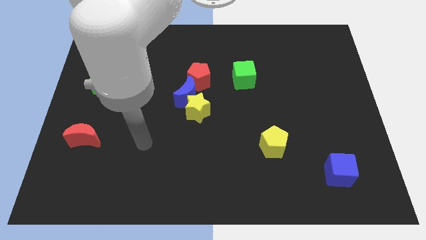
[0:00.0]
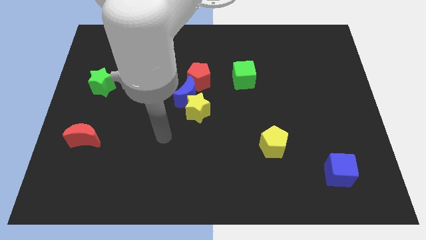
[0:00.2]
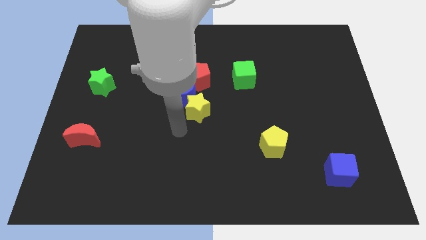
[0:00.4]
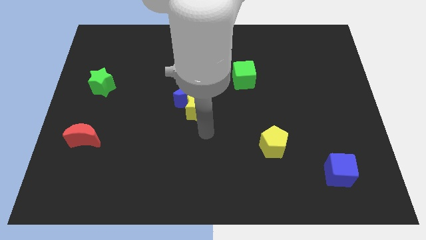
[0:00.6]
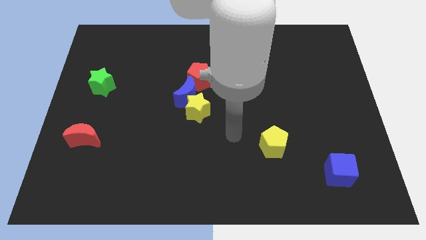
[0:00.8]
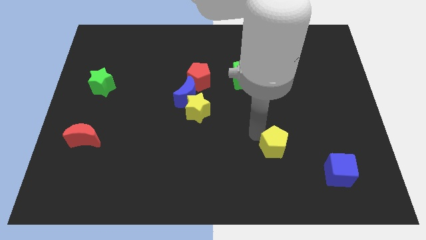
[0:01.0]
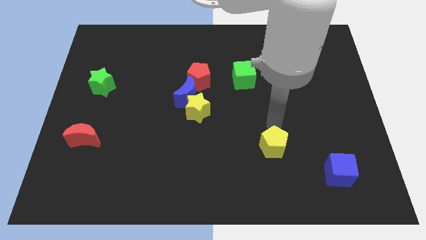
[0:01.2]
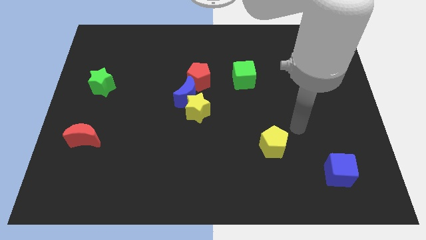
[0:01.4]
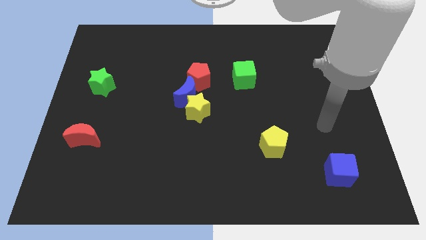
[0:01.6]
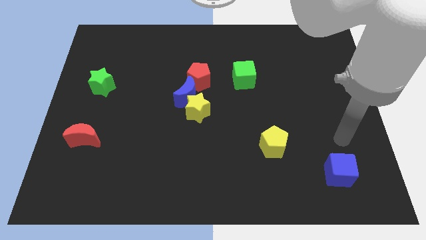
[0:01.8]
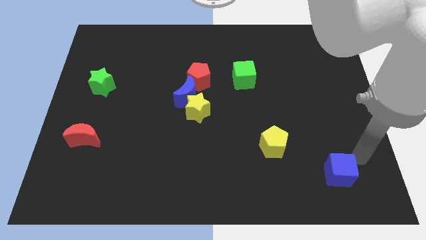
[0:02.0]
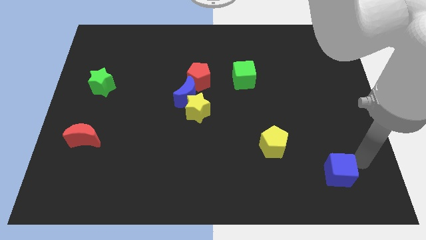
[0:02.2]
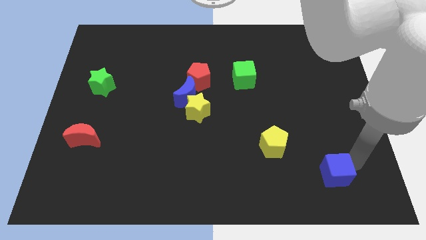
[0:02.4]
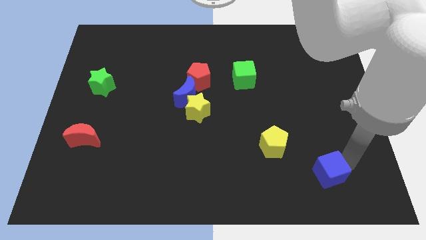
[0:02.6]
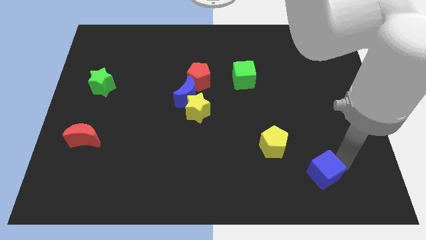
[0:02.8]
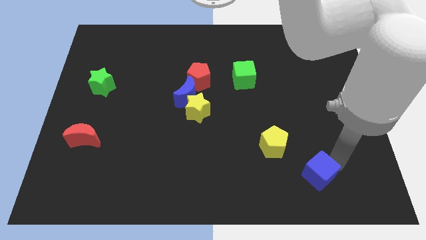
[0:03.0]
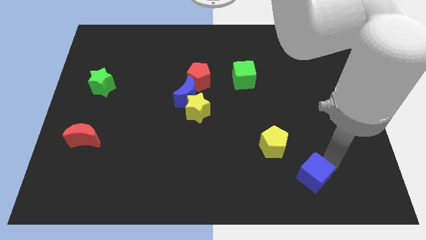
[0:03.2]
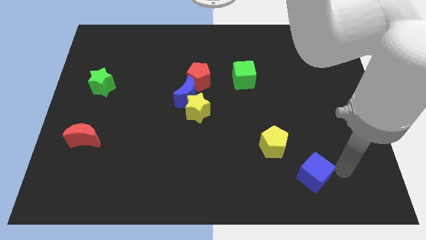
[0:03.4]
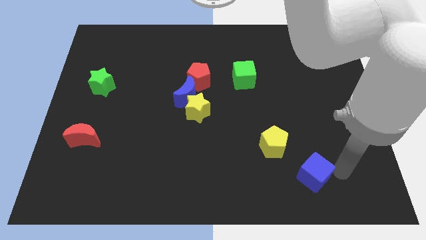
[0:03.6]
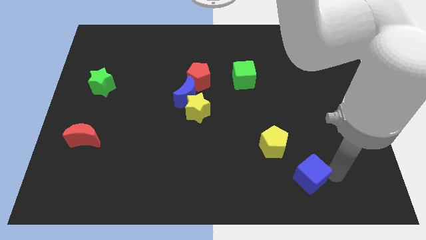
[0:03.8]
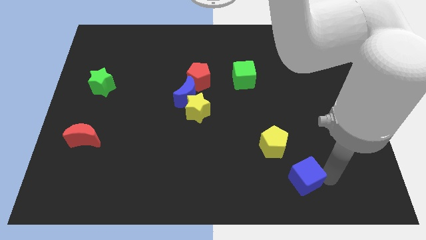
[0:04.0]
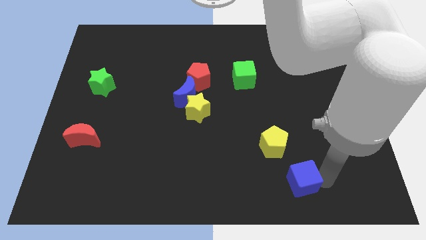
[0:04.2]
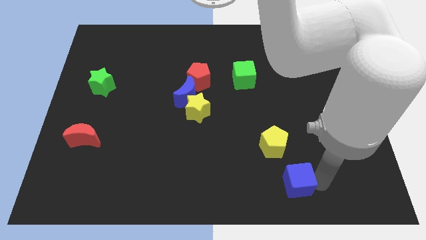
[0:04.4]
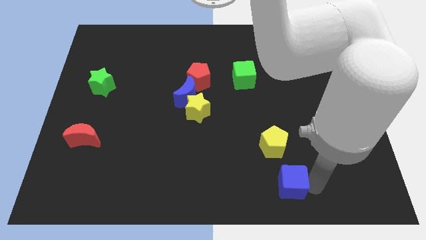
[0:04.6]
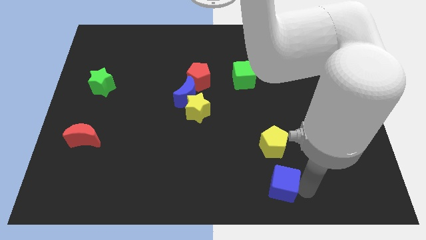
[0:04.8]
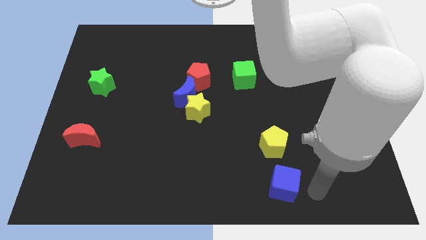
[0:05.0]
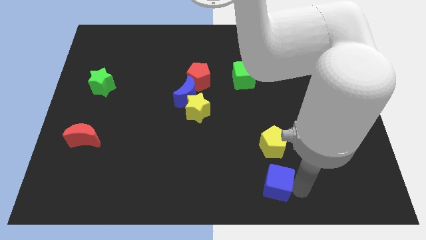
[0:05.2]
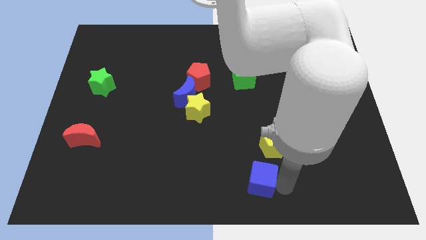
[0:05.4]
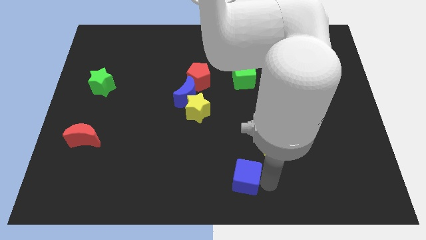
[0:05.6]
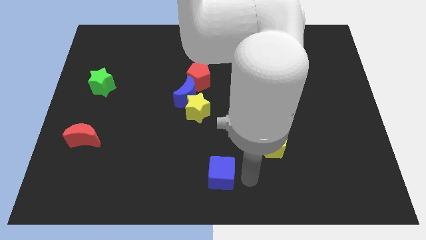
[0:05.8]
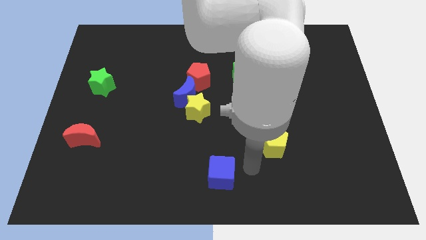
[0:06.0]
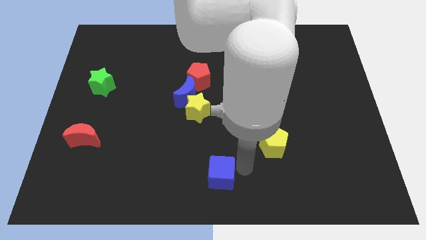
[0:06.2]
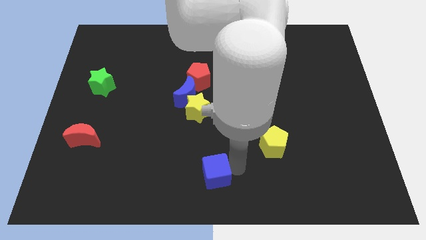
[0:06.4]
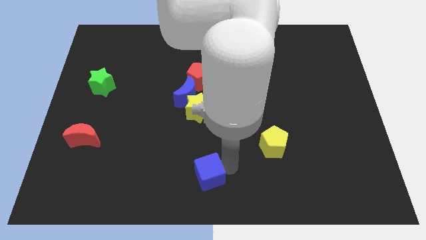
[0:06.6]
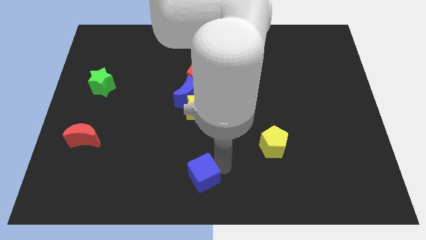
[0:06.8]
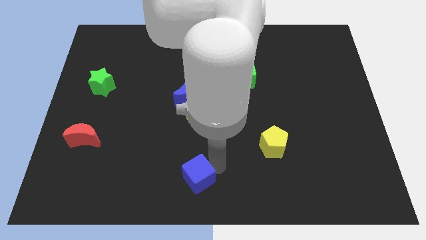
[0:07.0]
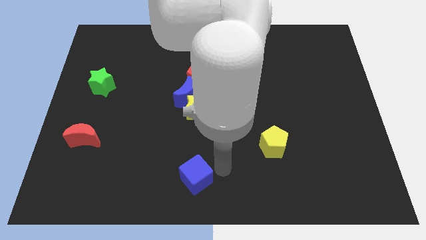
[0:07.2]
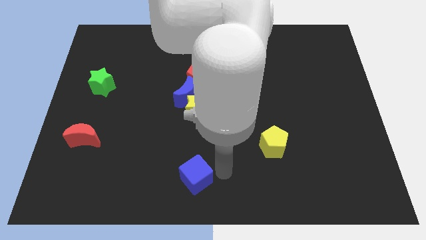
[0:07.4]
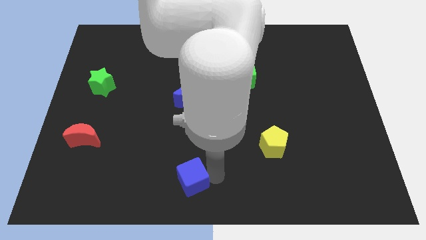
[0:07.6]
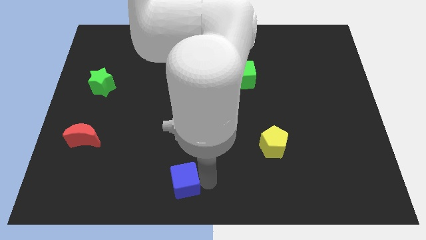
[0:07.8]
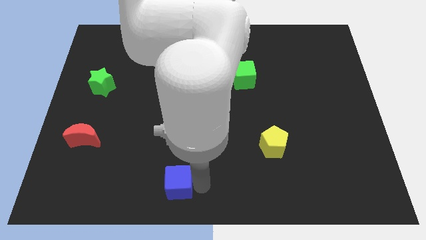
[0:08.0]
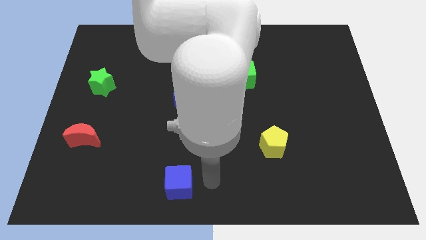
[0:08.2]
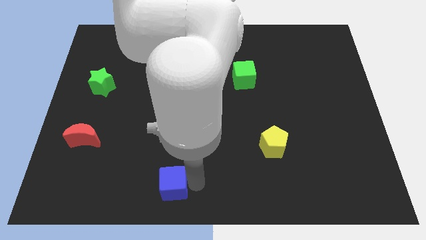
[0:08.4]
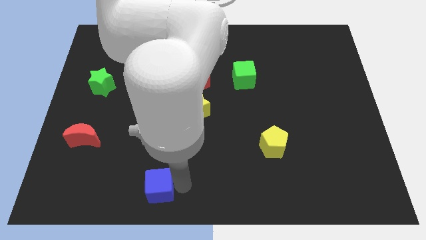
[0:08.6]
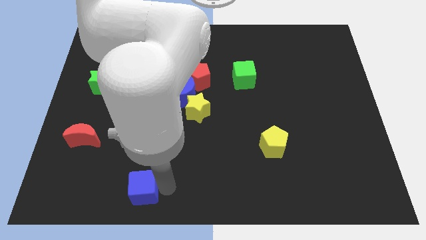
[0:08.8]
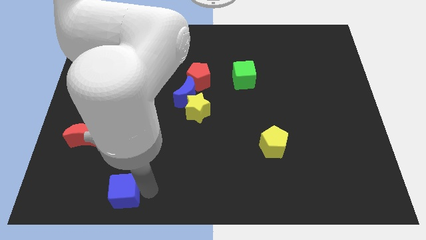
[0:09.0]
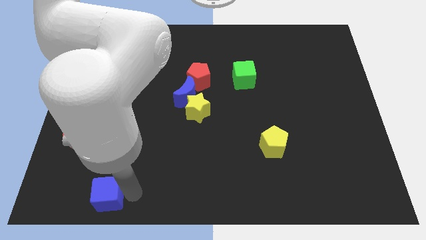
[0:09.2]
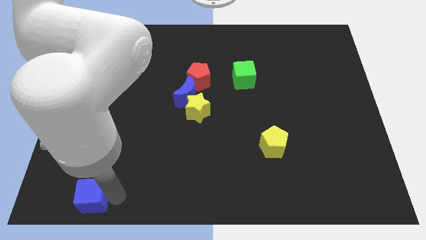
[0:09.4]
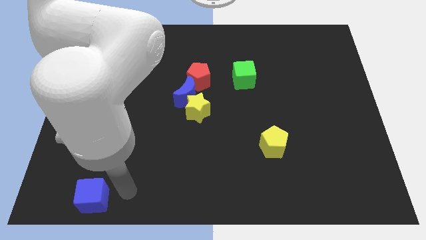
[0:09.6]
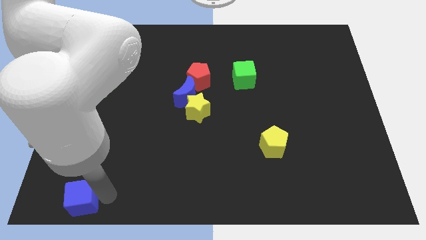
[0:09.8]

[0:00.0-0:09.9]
slide the blue cube to the bottom left of the board

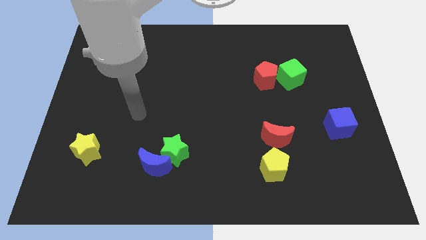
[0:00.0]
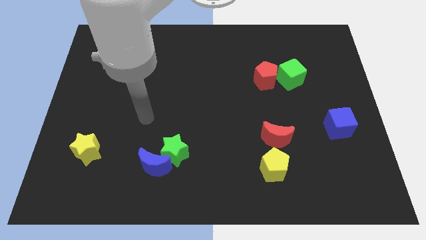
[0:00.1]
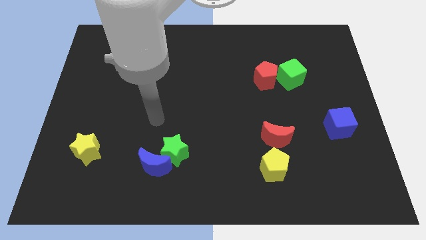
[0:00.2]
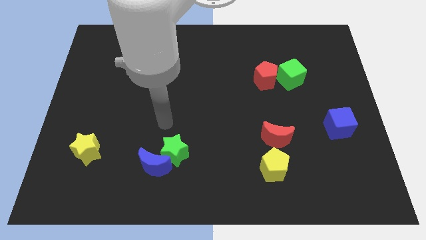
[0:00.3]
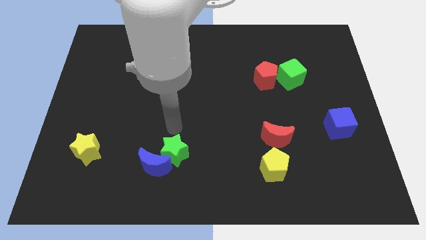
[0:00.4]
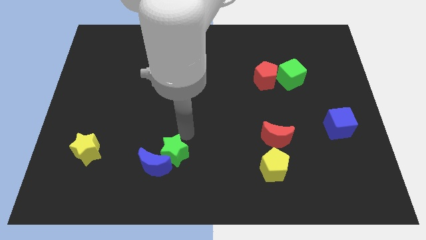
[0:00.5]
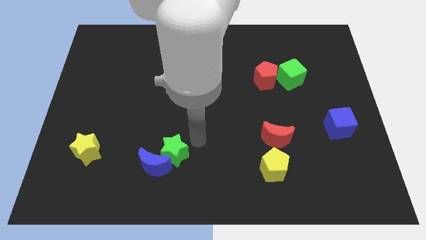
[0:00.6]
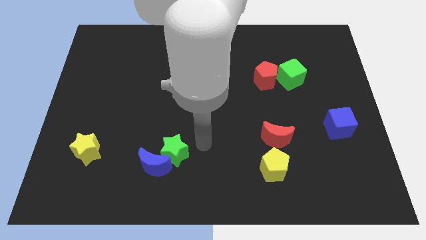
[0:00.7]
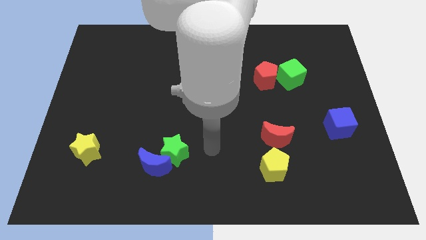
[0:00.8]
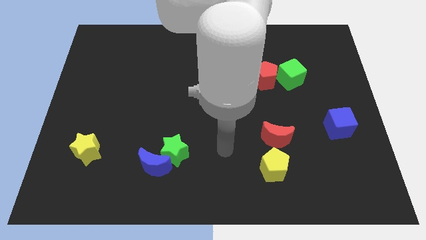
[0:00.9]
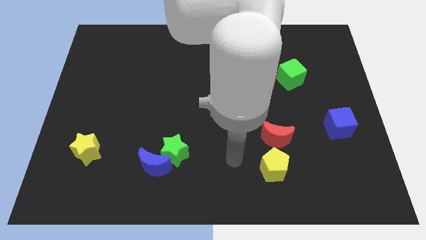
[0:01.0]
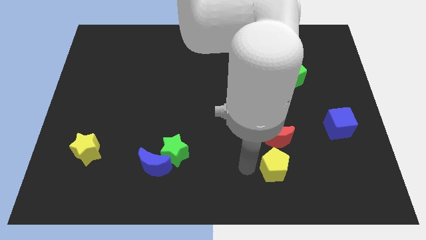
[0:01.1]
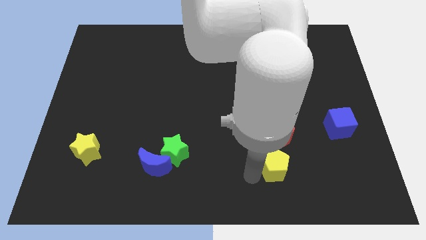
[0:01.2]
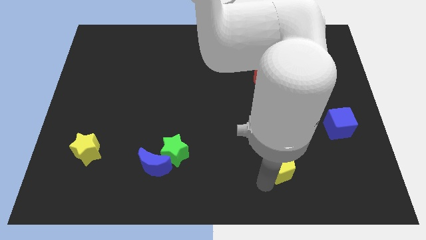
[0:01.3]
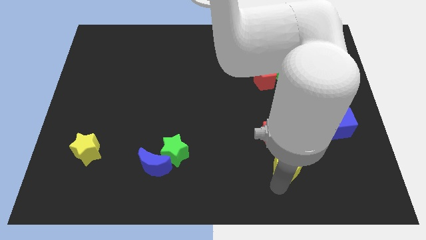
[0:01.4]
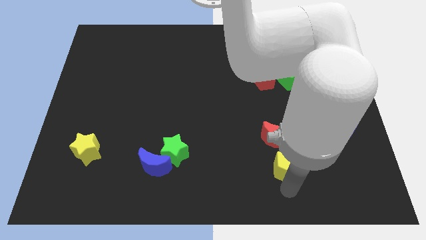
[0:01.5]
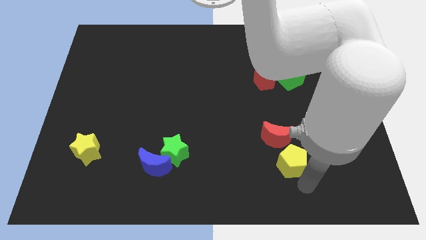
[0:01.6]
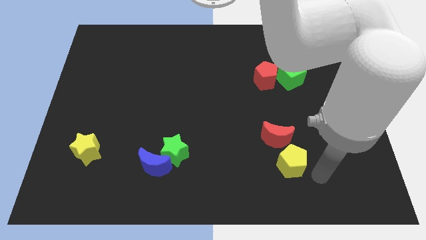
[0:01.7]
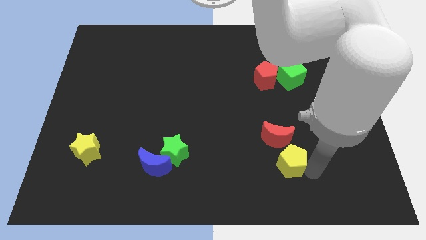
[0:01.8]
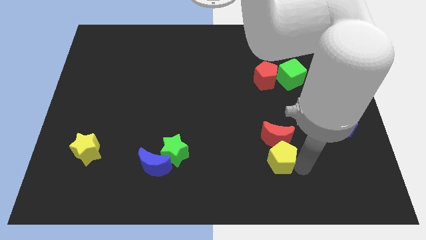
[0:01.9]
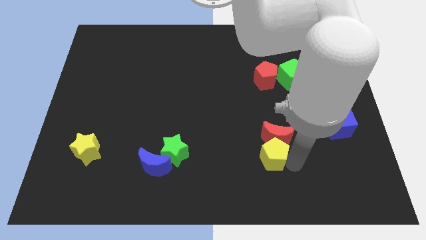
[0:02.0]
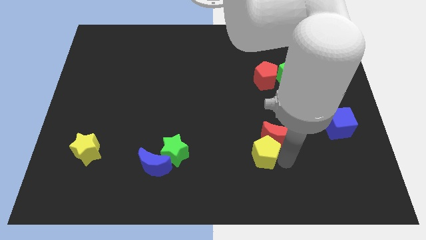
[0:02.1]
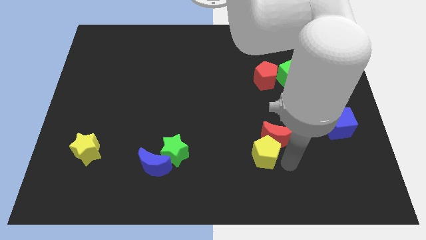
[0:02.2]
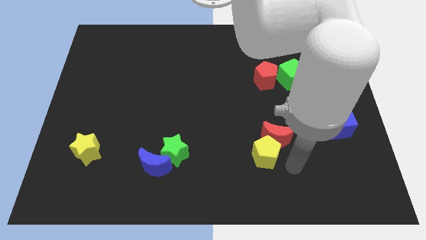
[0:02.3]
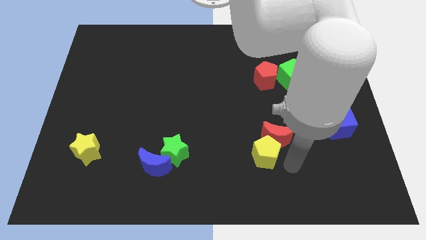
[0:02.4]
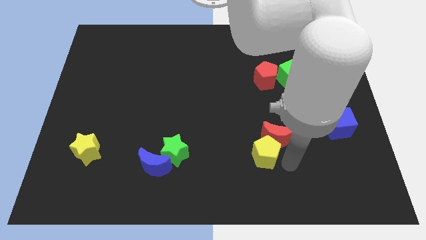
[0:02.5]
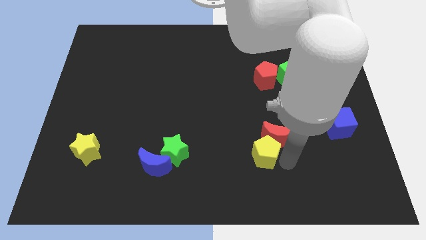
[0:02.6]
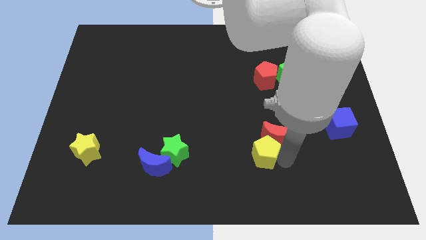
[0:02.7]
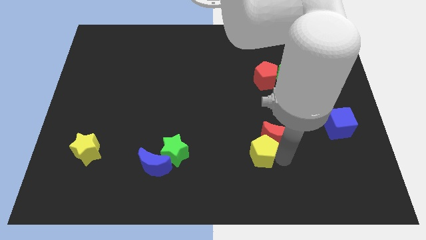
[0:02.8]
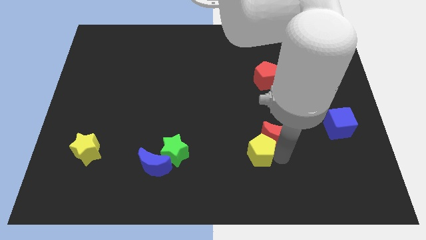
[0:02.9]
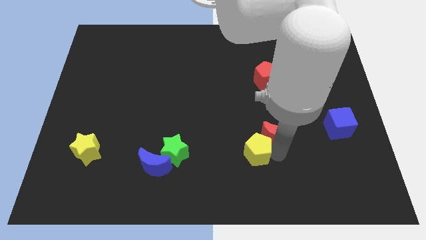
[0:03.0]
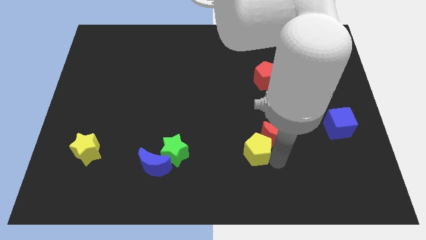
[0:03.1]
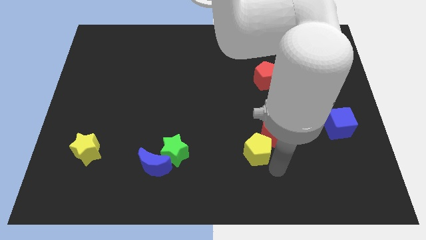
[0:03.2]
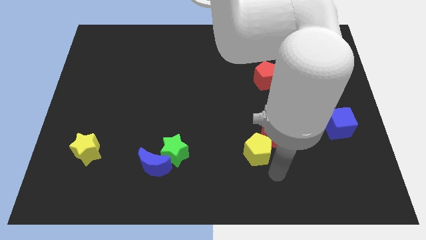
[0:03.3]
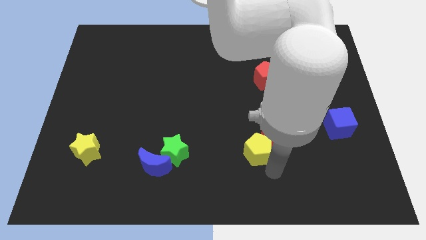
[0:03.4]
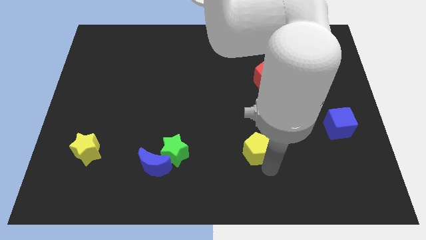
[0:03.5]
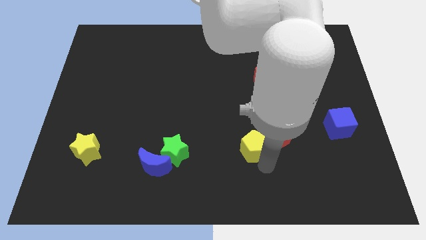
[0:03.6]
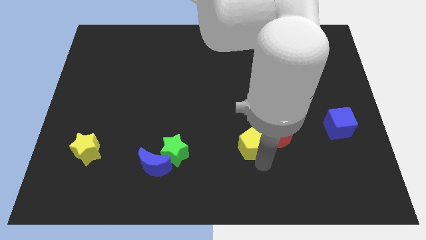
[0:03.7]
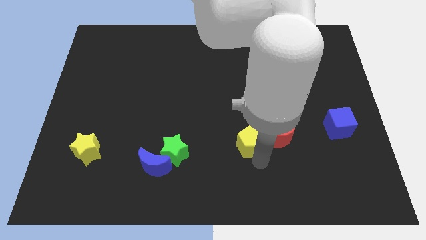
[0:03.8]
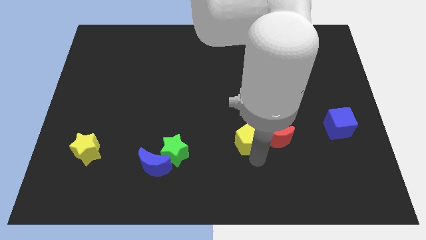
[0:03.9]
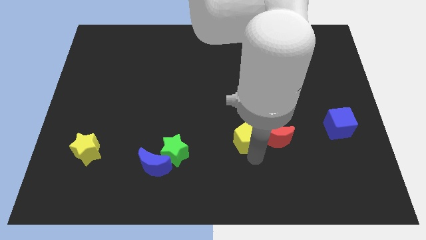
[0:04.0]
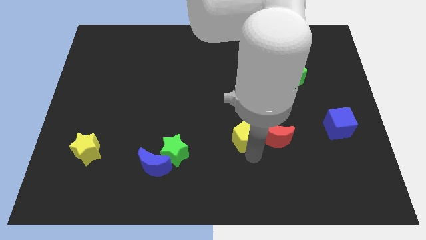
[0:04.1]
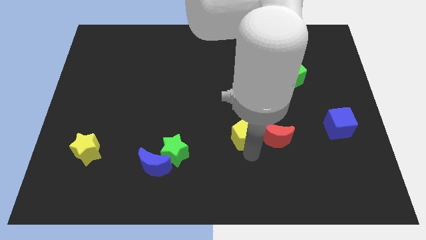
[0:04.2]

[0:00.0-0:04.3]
slide the yellow pentagon to the middle of the board
